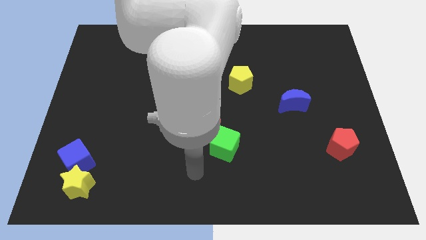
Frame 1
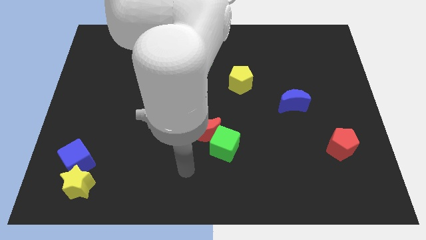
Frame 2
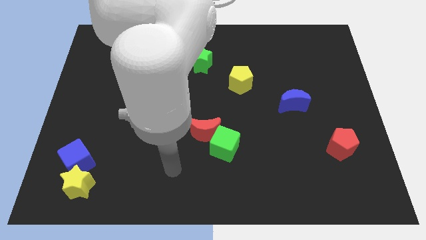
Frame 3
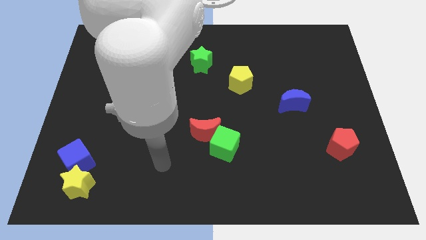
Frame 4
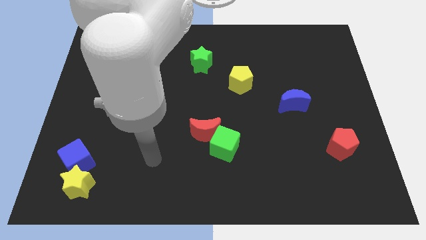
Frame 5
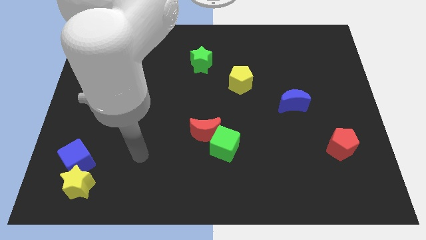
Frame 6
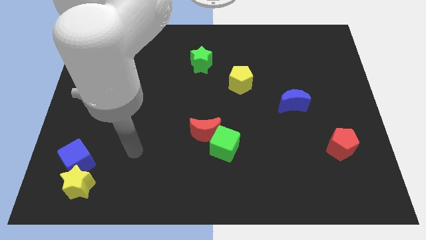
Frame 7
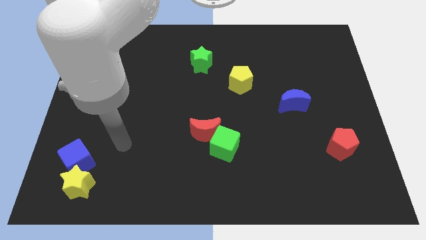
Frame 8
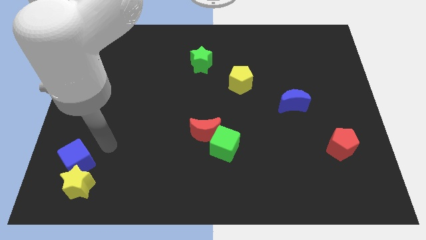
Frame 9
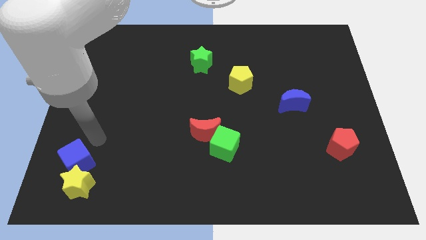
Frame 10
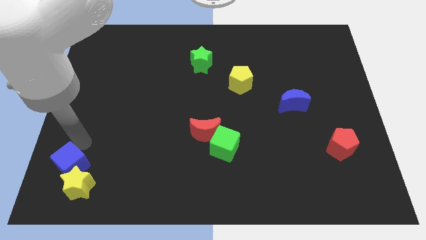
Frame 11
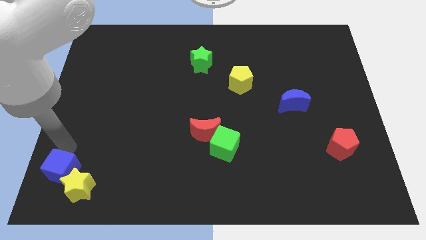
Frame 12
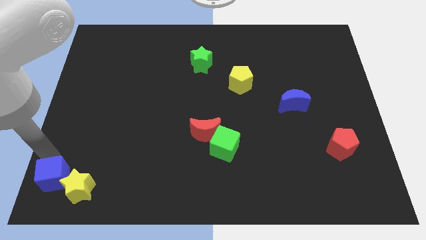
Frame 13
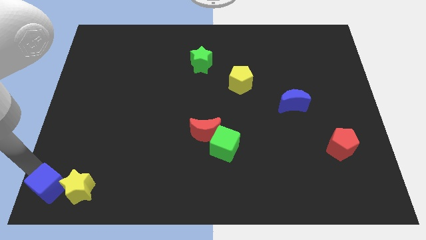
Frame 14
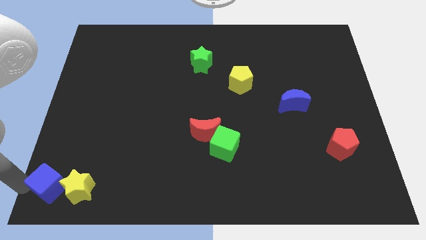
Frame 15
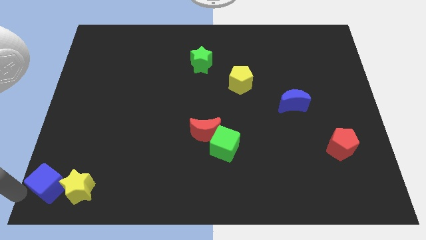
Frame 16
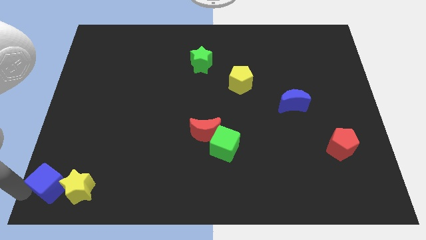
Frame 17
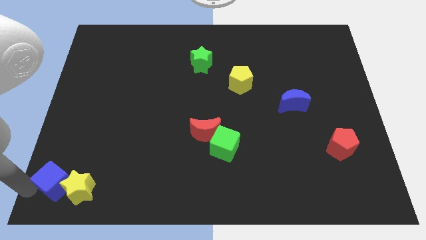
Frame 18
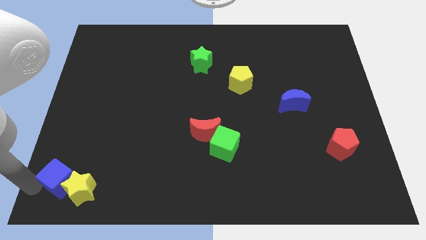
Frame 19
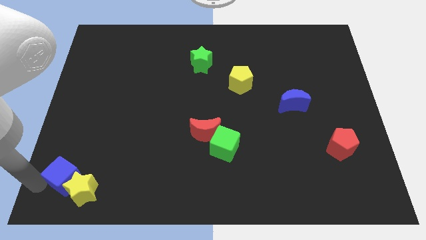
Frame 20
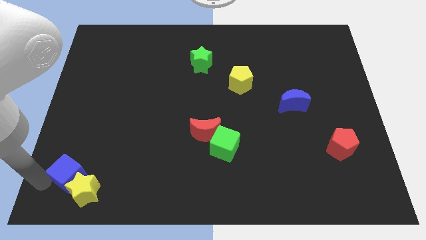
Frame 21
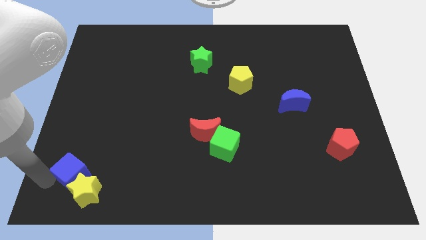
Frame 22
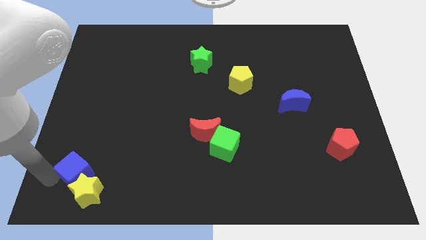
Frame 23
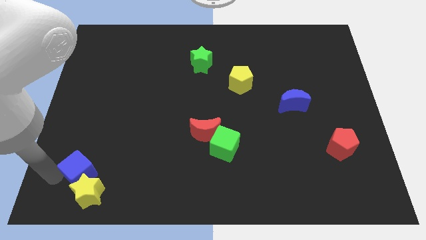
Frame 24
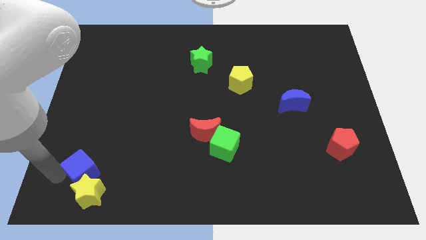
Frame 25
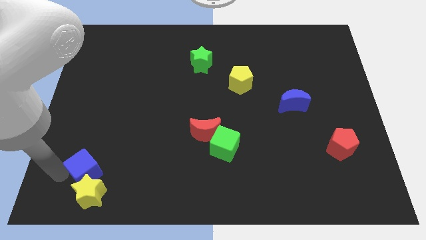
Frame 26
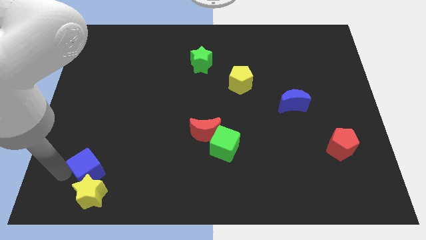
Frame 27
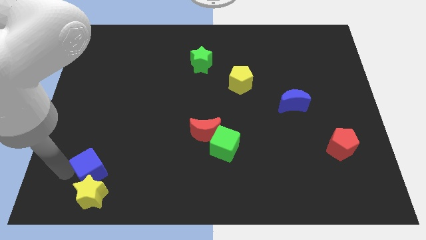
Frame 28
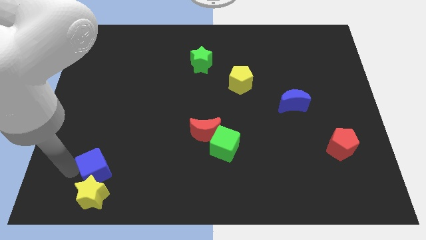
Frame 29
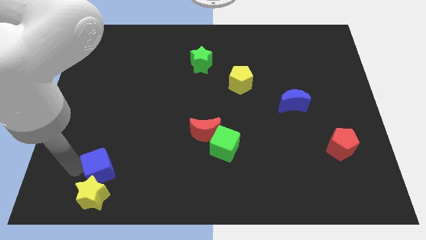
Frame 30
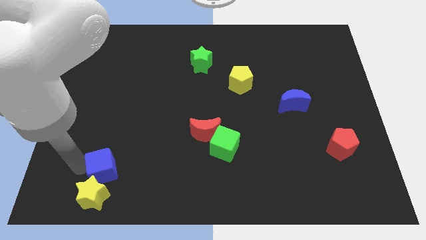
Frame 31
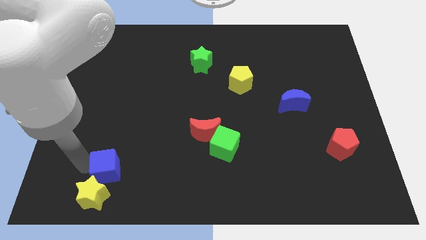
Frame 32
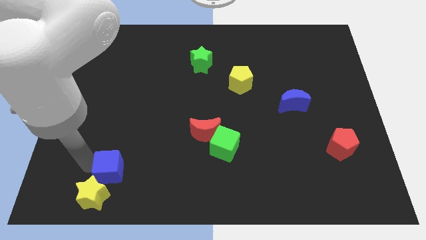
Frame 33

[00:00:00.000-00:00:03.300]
move the blue cube a bit to the right

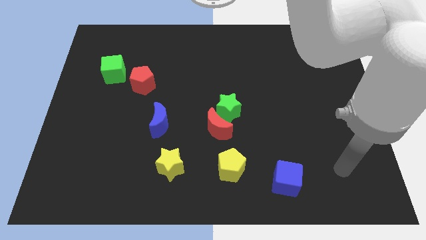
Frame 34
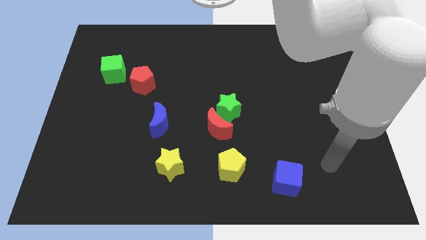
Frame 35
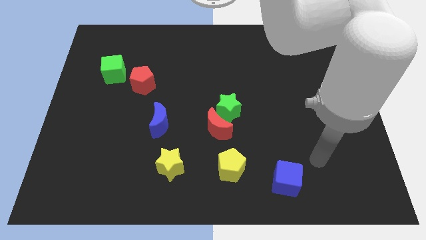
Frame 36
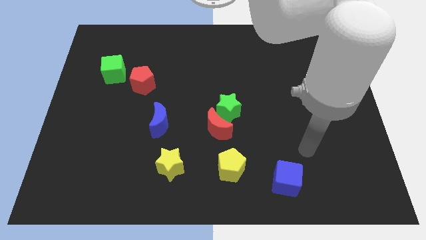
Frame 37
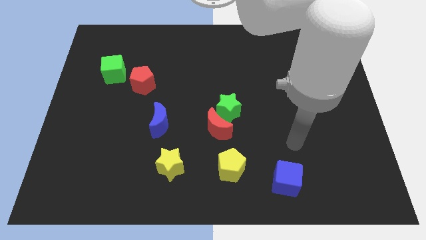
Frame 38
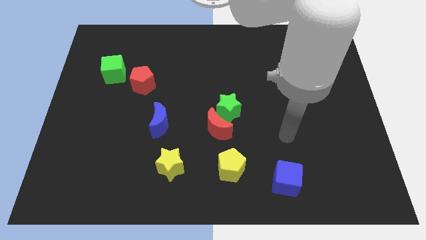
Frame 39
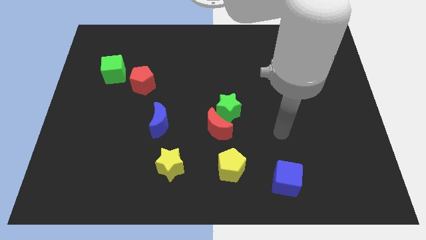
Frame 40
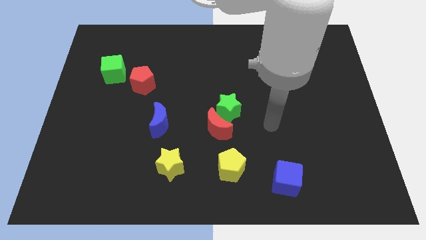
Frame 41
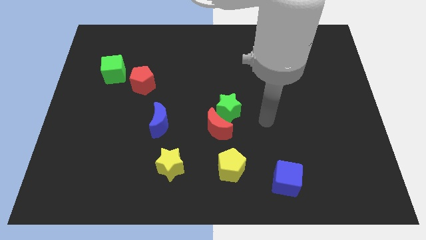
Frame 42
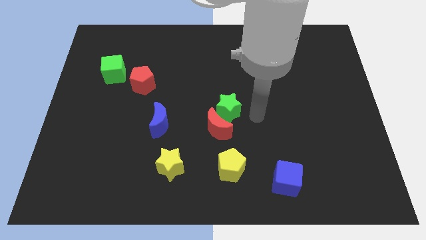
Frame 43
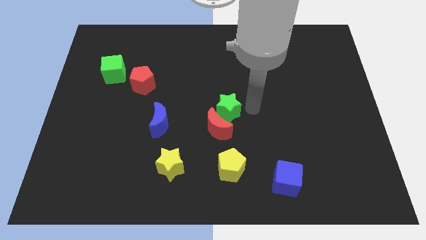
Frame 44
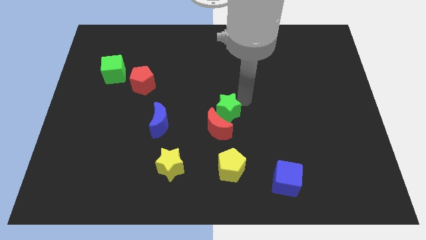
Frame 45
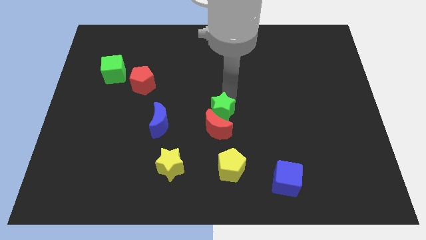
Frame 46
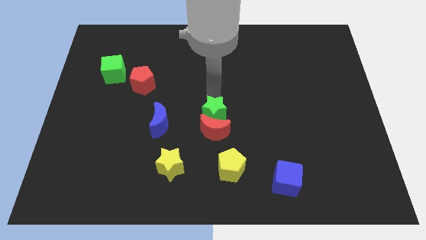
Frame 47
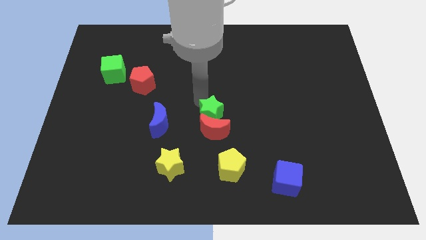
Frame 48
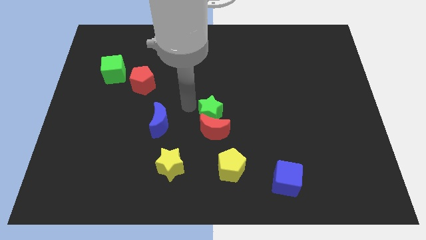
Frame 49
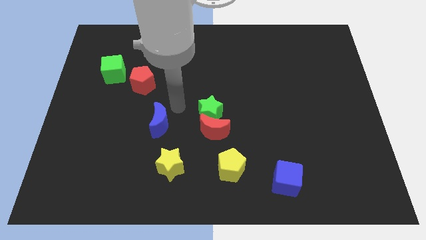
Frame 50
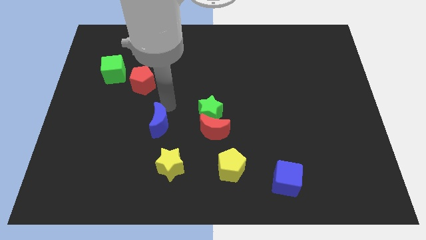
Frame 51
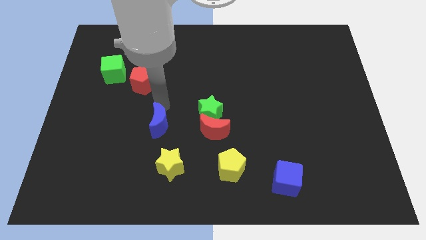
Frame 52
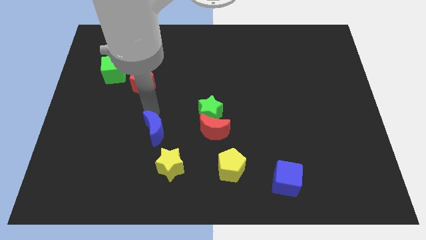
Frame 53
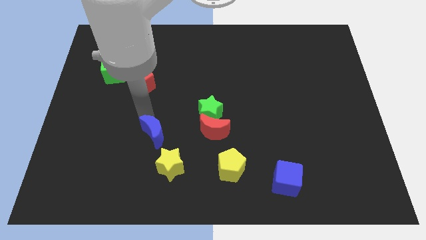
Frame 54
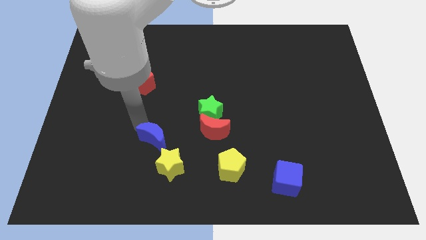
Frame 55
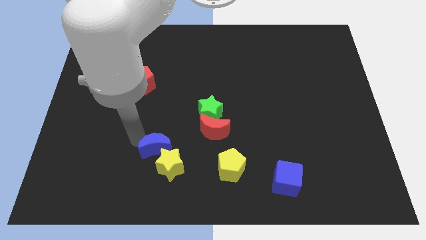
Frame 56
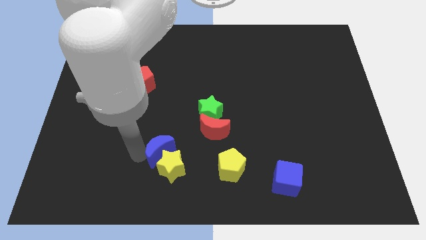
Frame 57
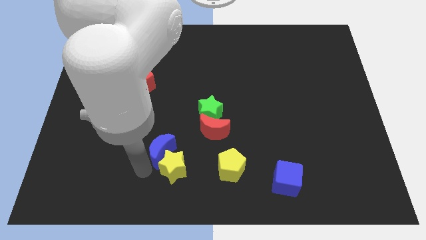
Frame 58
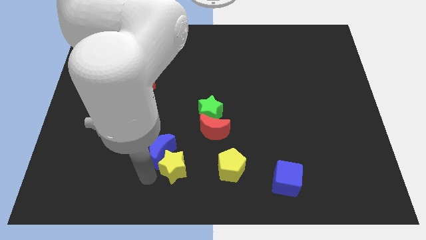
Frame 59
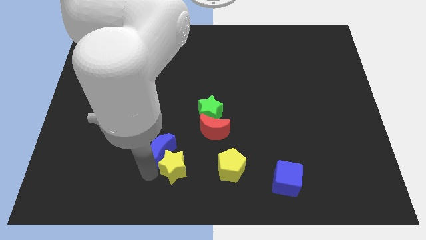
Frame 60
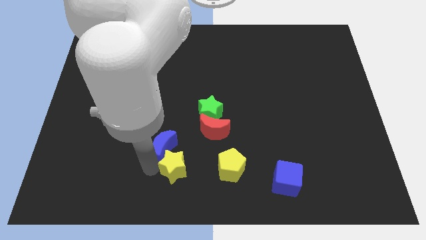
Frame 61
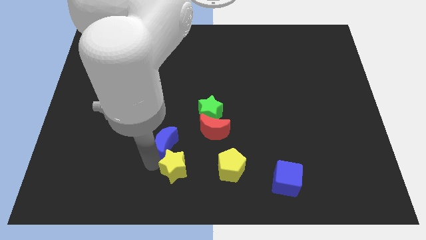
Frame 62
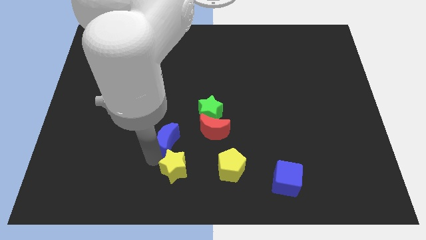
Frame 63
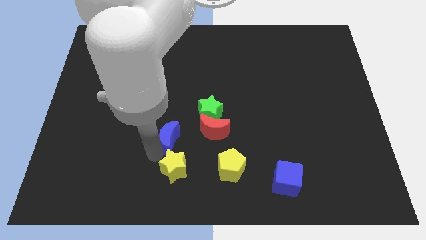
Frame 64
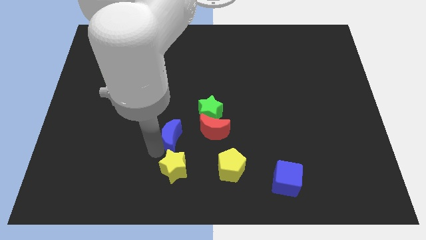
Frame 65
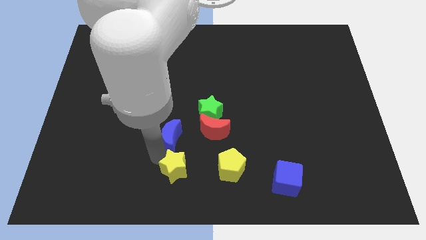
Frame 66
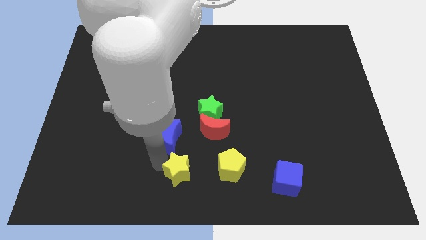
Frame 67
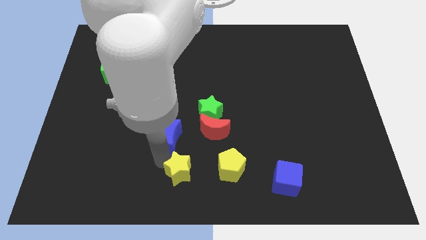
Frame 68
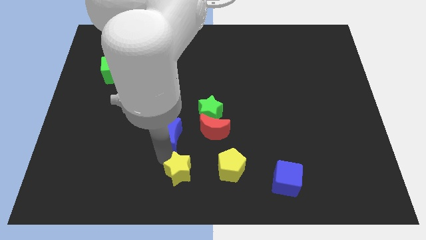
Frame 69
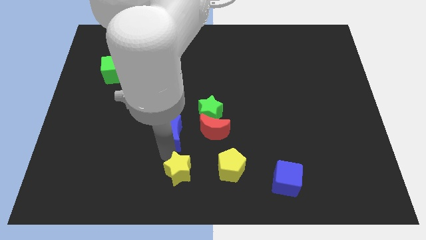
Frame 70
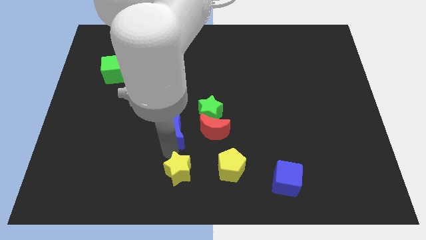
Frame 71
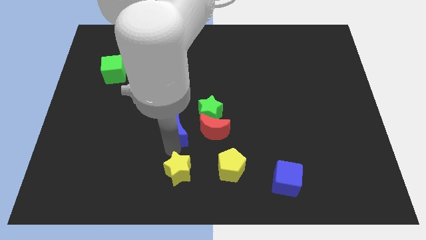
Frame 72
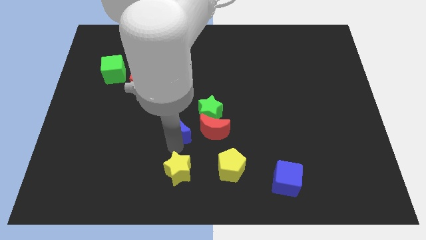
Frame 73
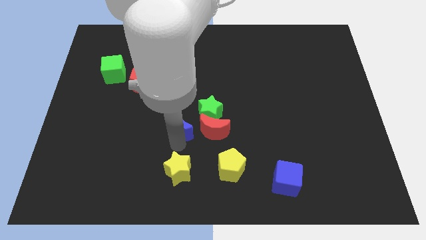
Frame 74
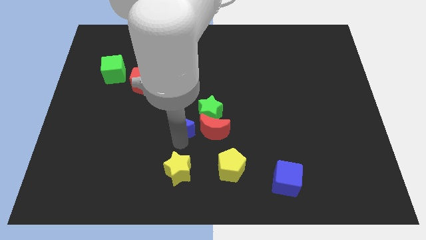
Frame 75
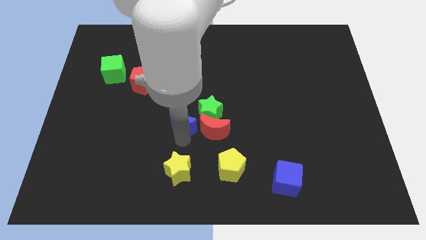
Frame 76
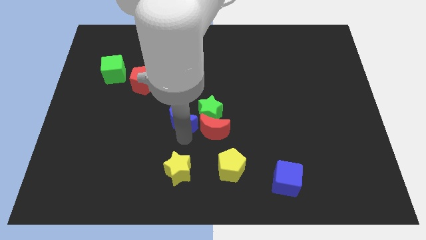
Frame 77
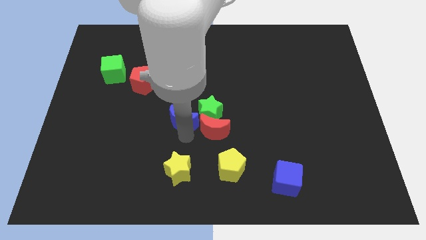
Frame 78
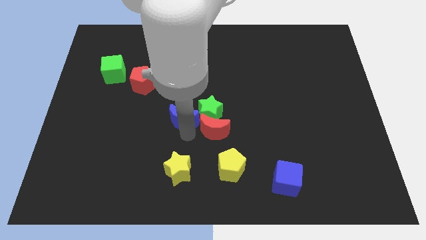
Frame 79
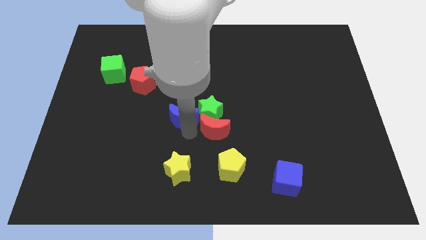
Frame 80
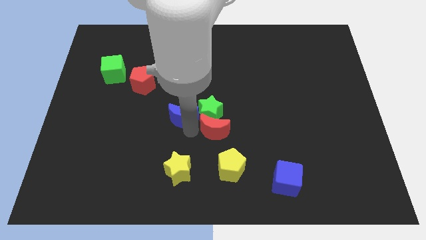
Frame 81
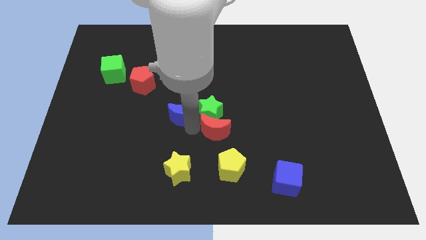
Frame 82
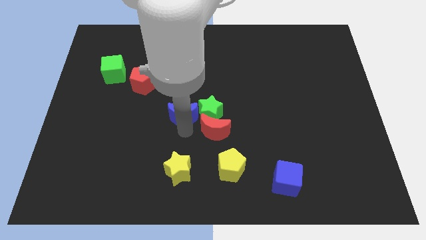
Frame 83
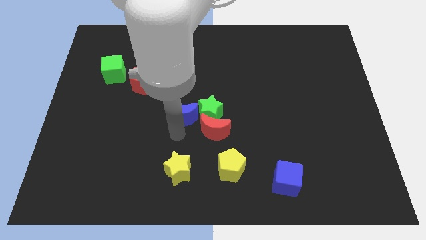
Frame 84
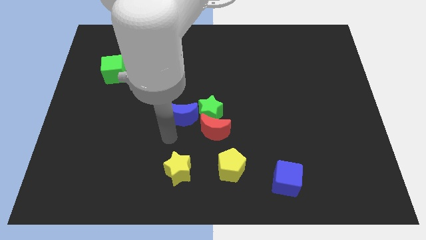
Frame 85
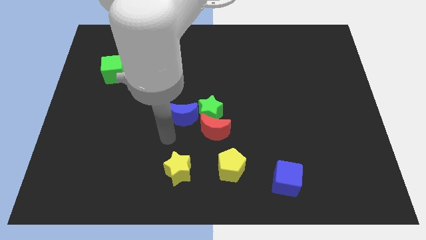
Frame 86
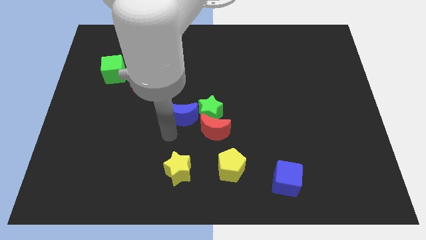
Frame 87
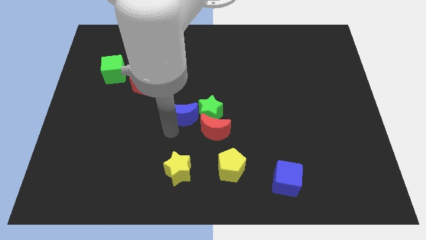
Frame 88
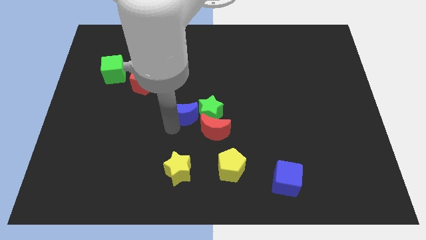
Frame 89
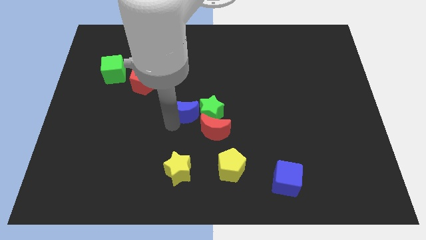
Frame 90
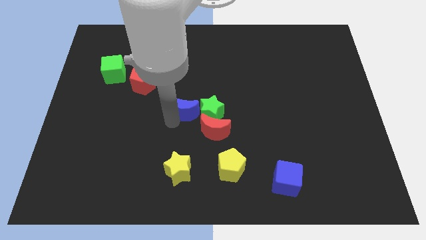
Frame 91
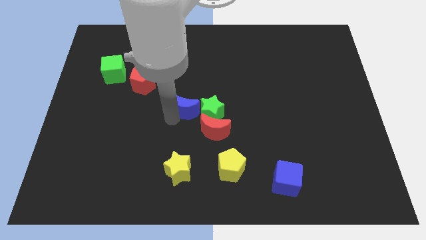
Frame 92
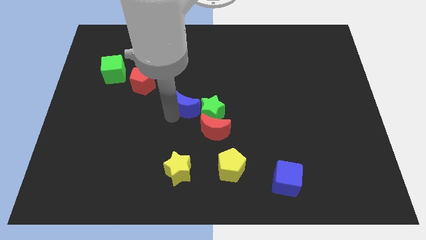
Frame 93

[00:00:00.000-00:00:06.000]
move the blue moon up and right somewhat
